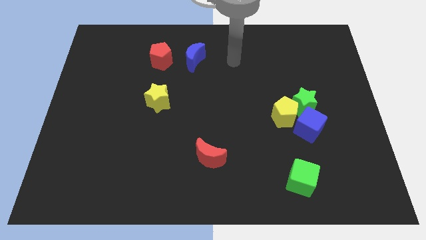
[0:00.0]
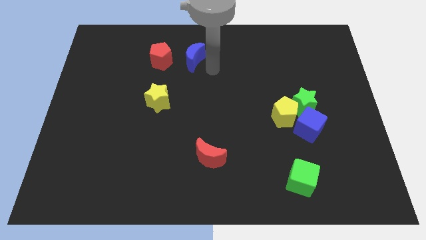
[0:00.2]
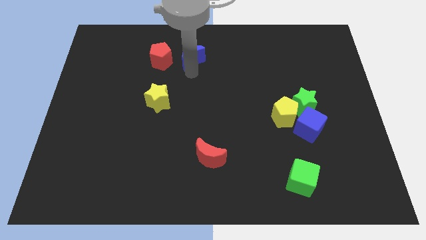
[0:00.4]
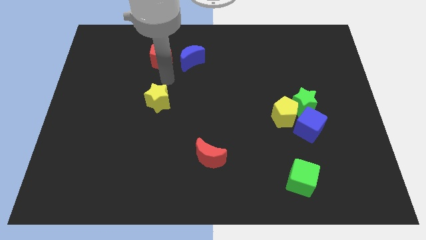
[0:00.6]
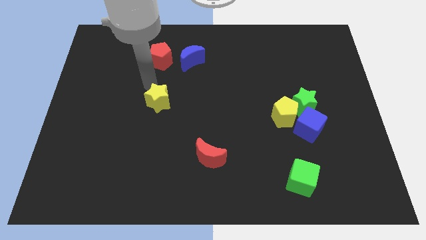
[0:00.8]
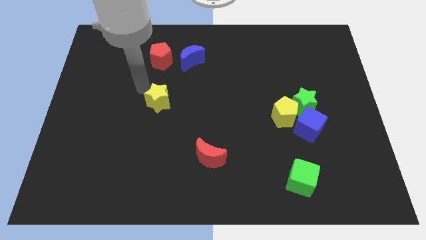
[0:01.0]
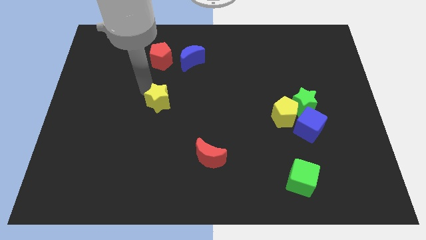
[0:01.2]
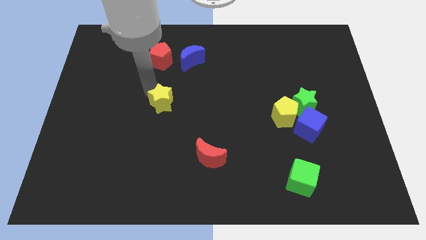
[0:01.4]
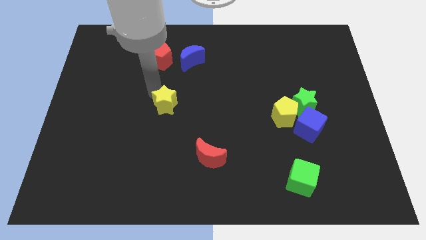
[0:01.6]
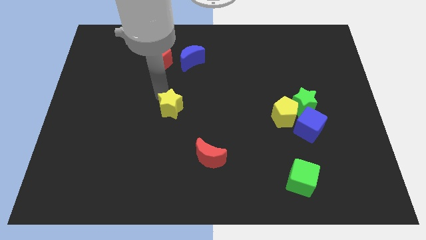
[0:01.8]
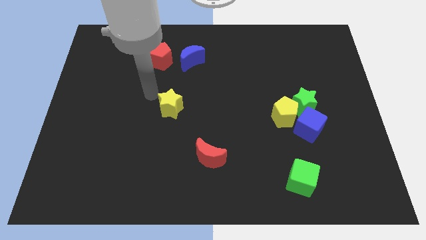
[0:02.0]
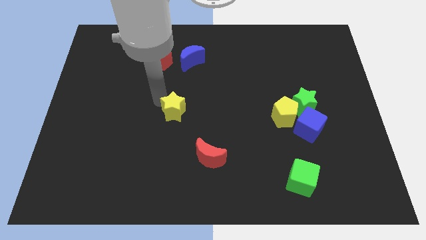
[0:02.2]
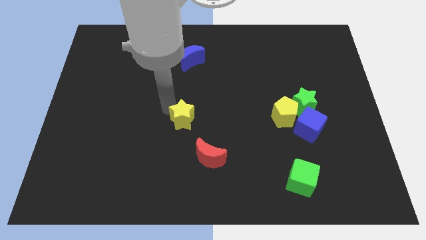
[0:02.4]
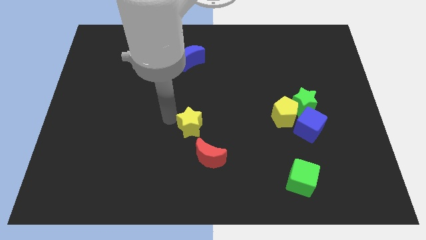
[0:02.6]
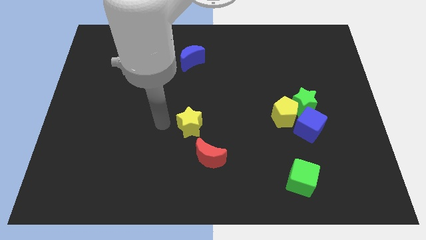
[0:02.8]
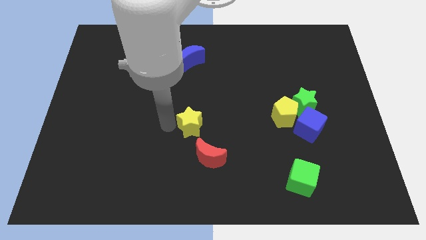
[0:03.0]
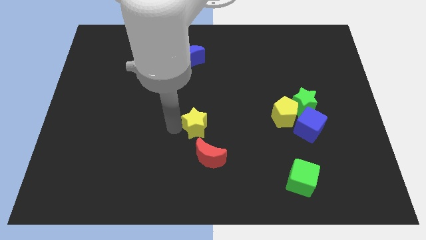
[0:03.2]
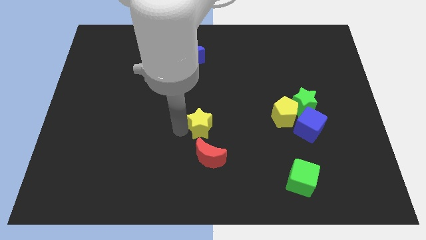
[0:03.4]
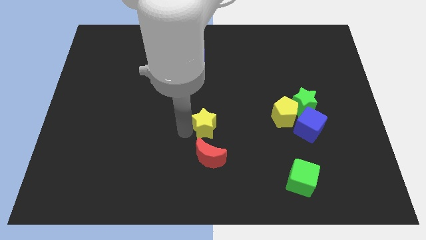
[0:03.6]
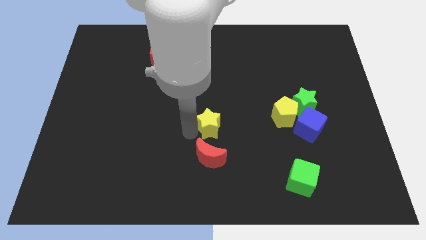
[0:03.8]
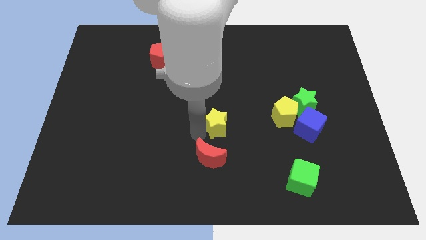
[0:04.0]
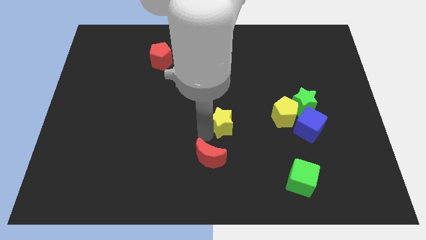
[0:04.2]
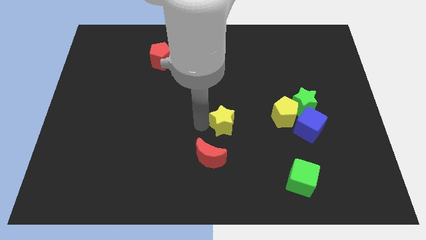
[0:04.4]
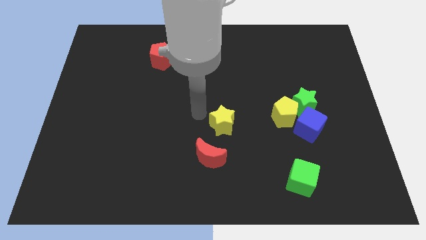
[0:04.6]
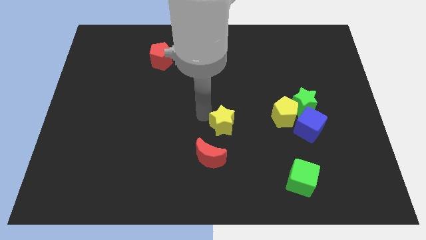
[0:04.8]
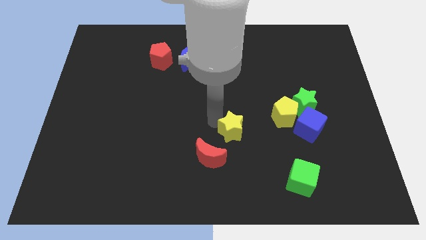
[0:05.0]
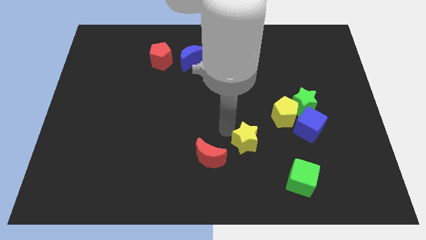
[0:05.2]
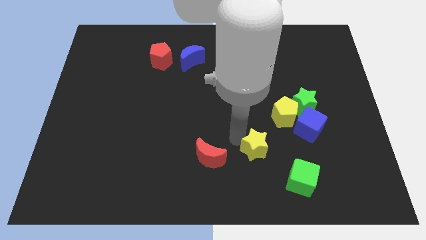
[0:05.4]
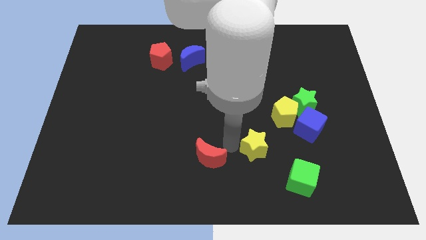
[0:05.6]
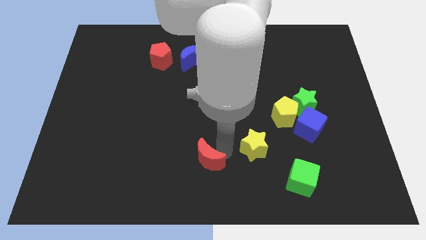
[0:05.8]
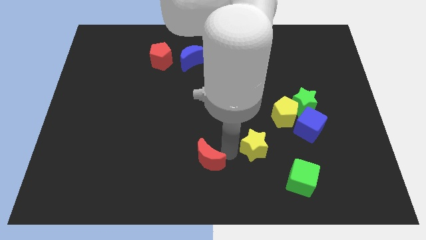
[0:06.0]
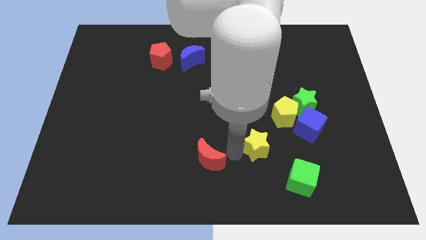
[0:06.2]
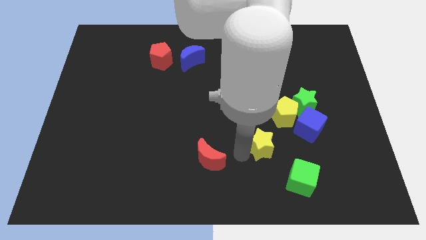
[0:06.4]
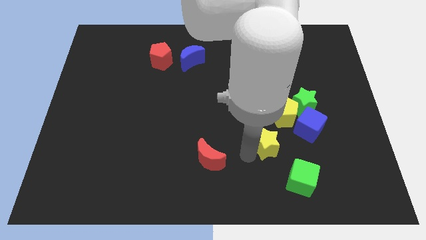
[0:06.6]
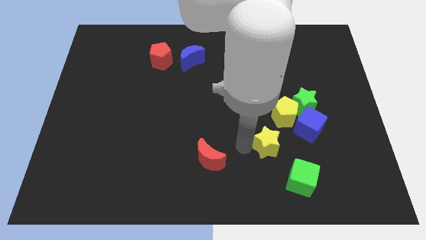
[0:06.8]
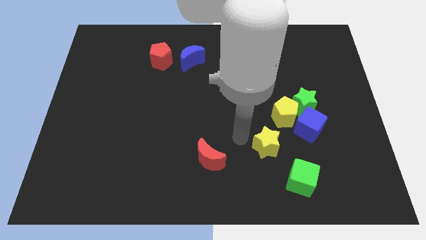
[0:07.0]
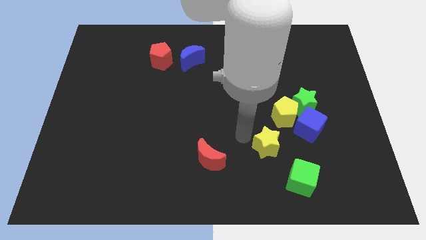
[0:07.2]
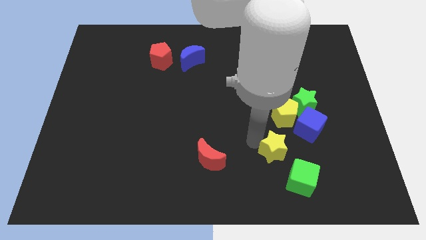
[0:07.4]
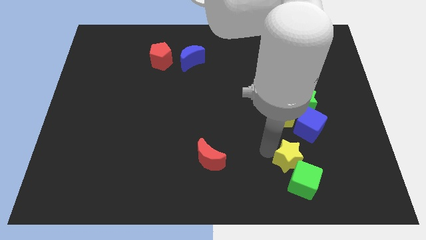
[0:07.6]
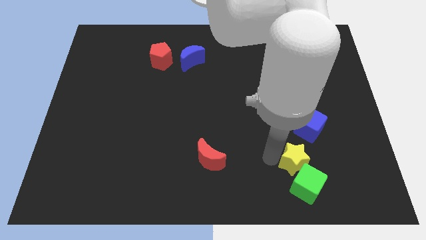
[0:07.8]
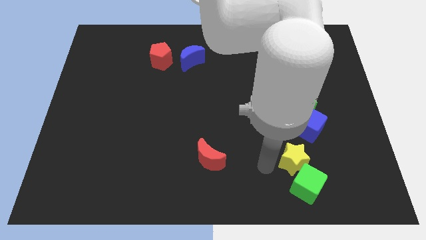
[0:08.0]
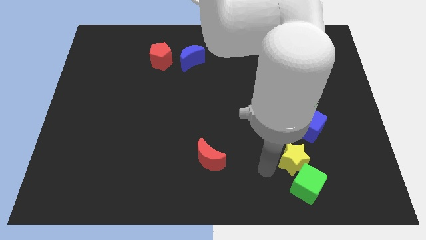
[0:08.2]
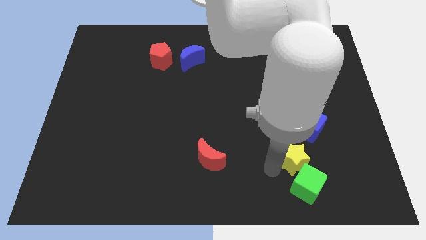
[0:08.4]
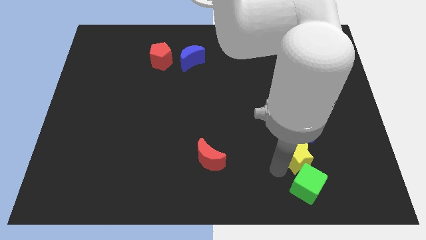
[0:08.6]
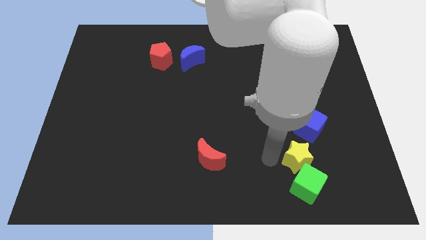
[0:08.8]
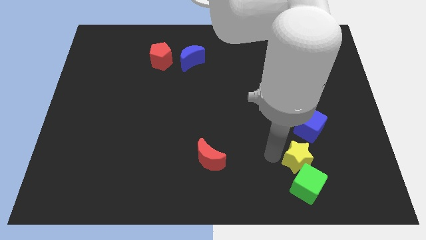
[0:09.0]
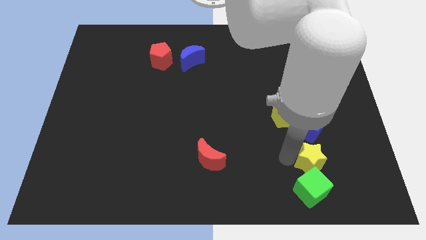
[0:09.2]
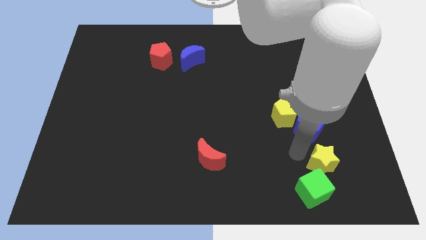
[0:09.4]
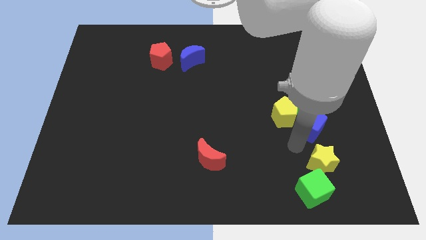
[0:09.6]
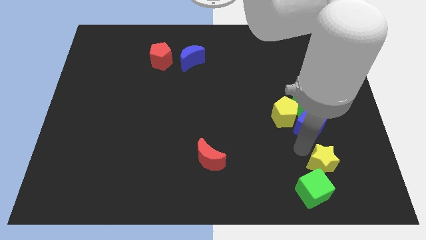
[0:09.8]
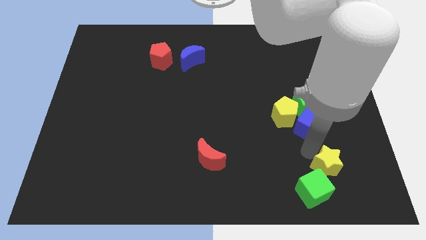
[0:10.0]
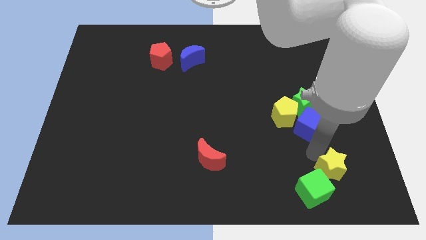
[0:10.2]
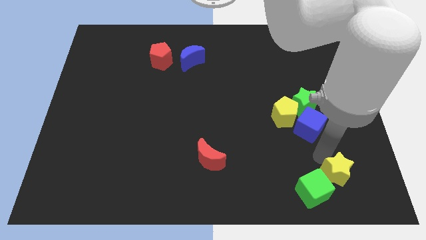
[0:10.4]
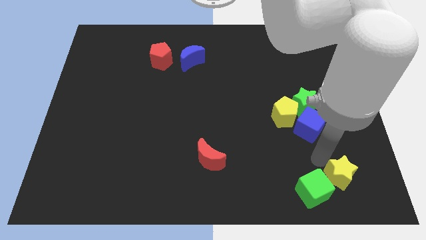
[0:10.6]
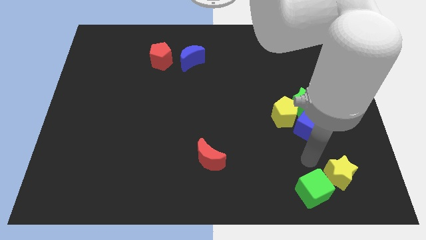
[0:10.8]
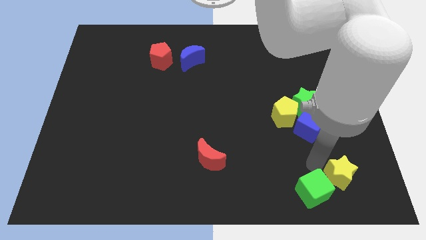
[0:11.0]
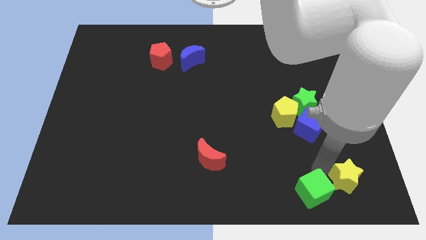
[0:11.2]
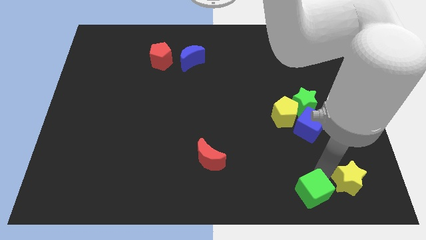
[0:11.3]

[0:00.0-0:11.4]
slide the yellow star to the bottom right

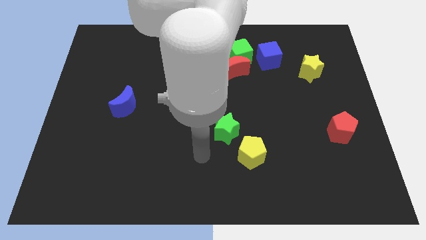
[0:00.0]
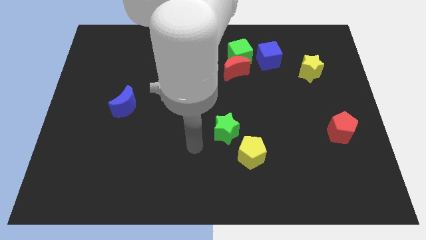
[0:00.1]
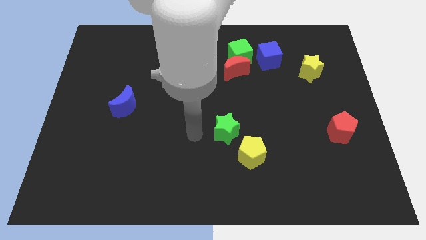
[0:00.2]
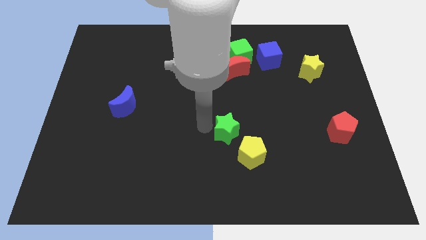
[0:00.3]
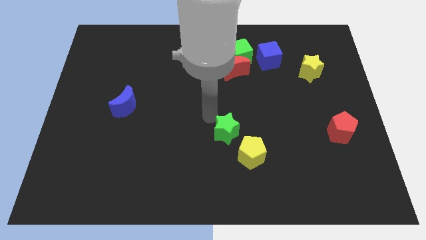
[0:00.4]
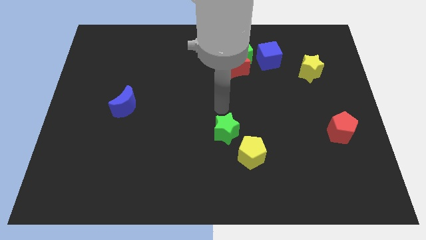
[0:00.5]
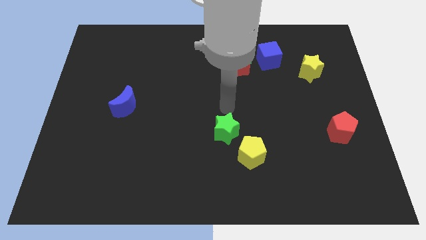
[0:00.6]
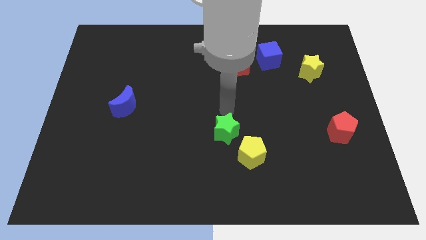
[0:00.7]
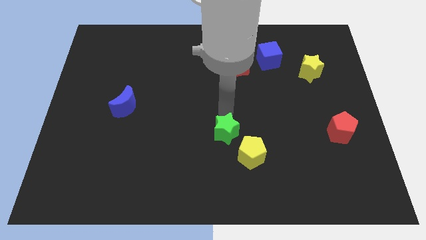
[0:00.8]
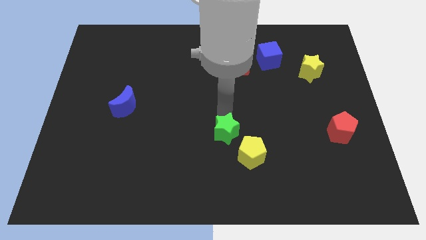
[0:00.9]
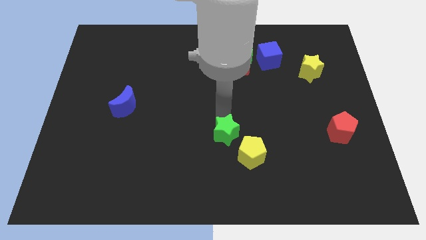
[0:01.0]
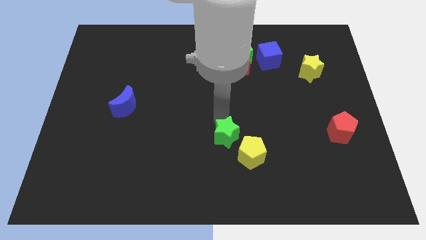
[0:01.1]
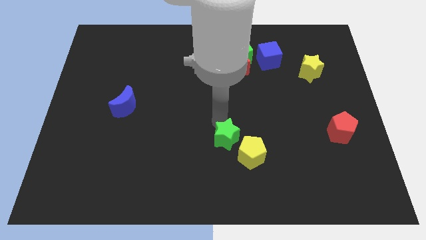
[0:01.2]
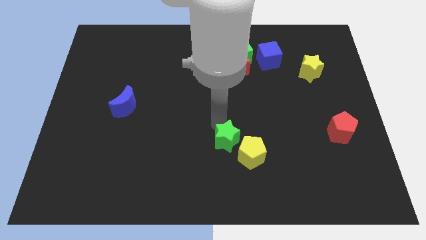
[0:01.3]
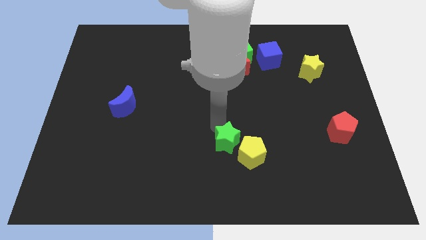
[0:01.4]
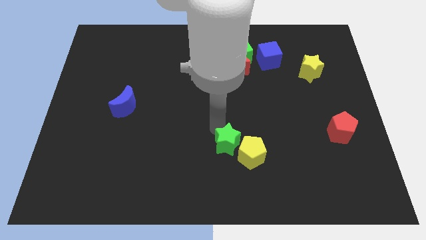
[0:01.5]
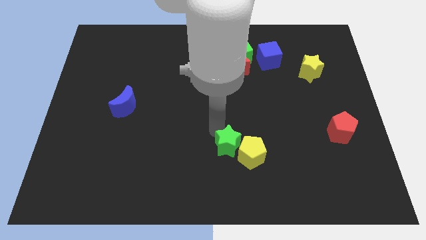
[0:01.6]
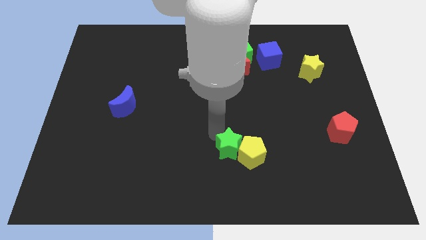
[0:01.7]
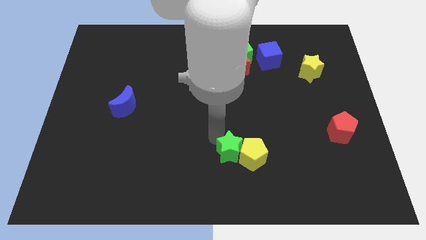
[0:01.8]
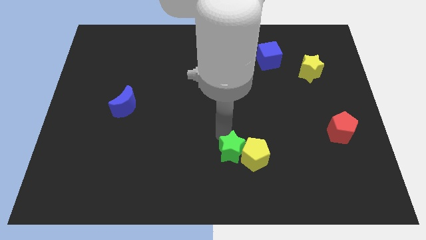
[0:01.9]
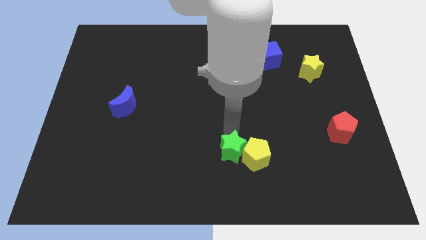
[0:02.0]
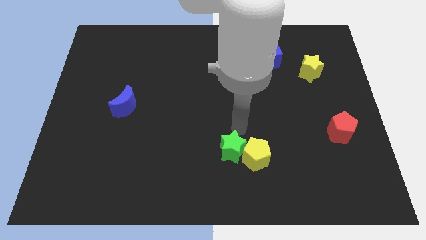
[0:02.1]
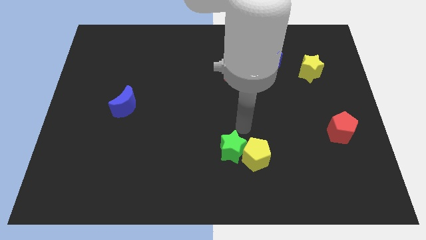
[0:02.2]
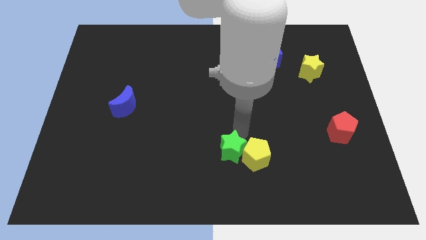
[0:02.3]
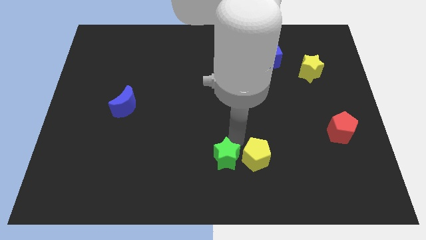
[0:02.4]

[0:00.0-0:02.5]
move the green star to the bottom
